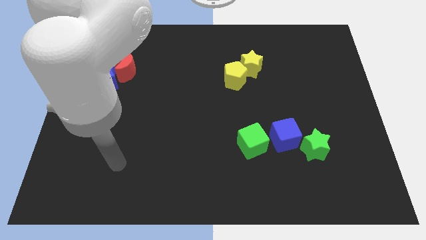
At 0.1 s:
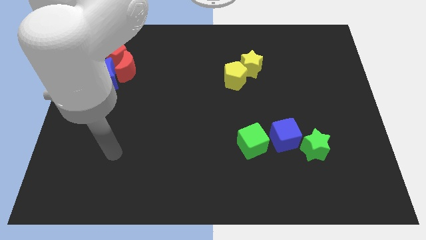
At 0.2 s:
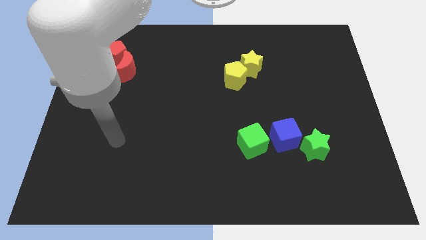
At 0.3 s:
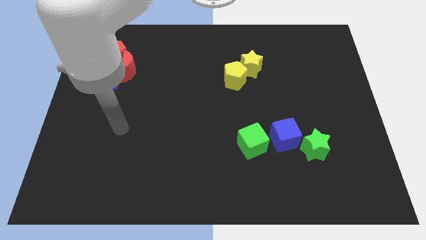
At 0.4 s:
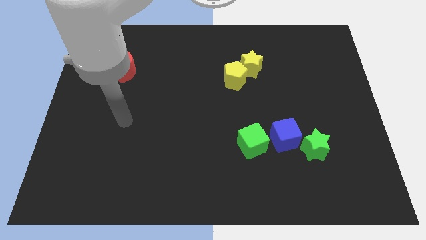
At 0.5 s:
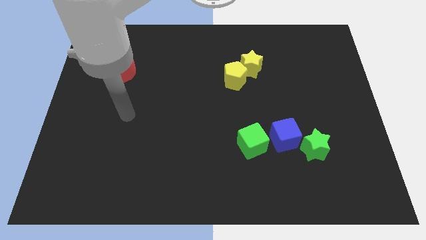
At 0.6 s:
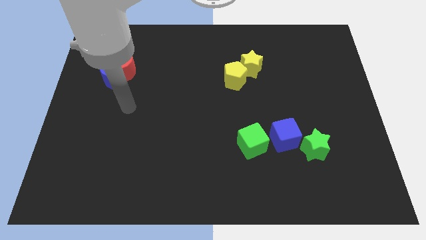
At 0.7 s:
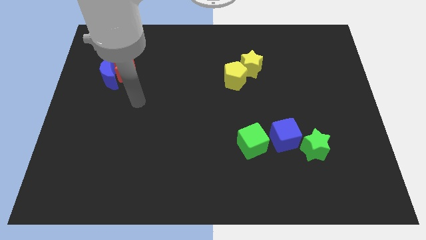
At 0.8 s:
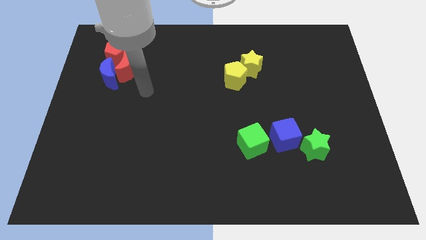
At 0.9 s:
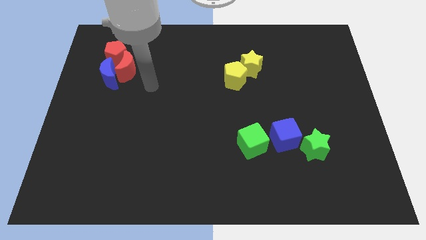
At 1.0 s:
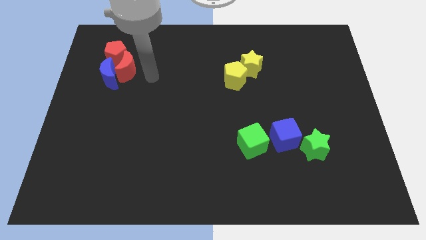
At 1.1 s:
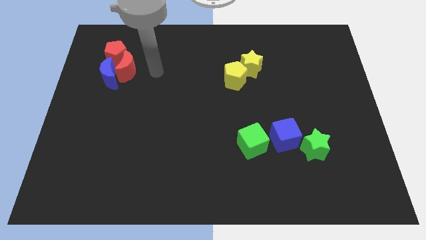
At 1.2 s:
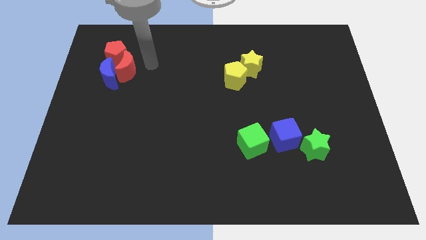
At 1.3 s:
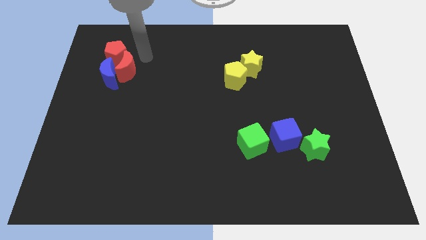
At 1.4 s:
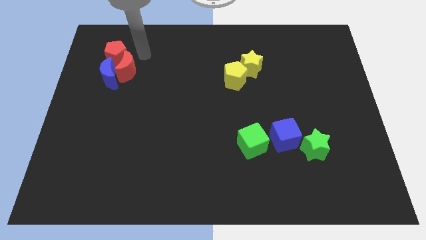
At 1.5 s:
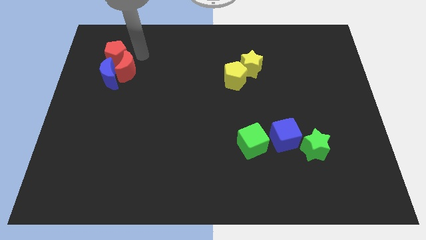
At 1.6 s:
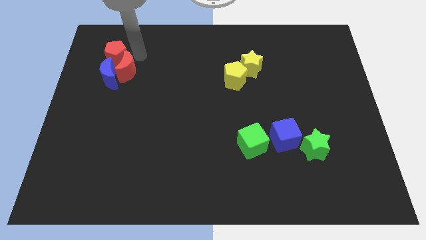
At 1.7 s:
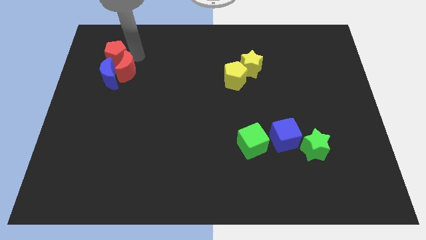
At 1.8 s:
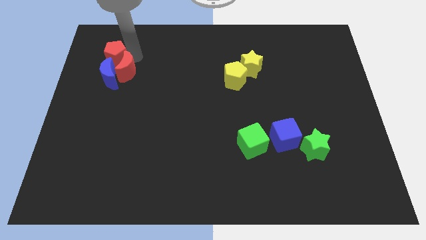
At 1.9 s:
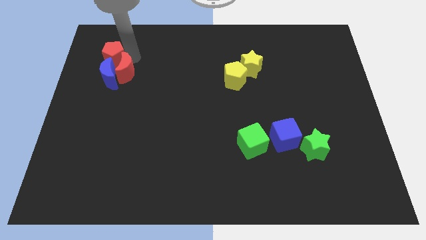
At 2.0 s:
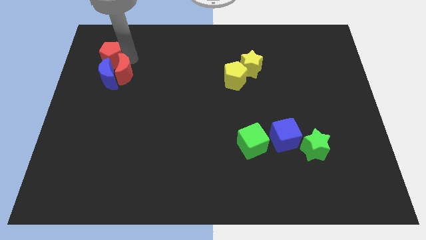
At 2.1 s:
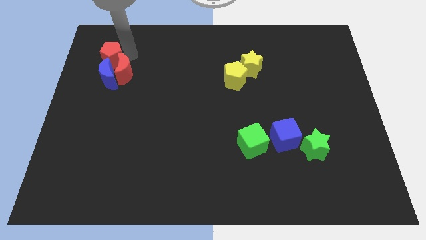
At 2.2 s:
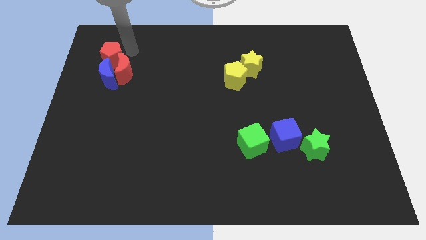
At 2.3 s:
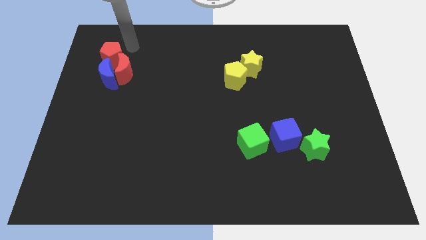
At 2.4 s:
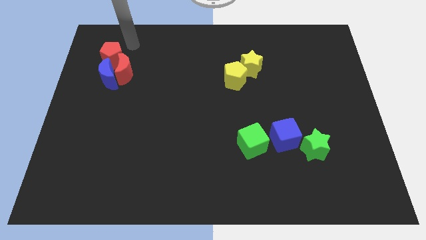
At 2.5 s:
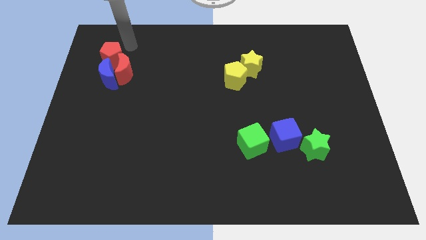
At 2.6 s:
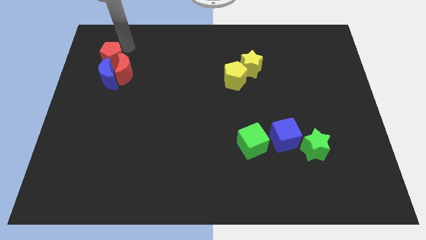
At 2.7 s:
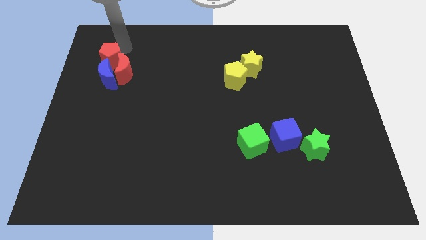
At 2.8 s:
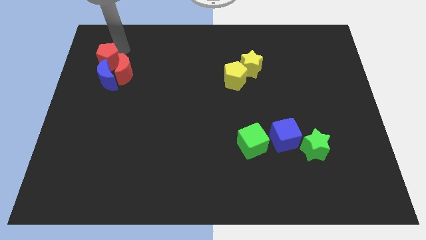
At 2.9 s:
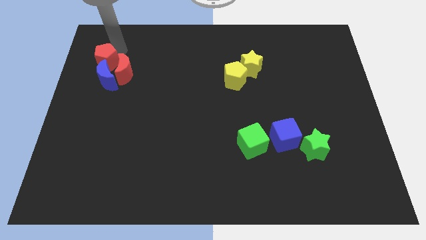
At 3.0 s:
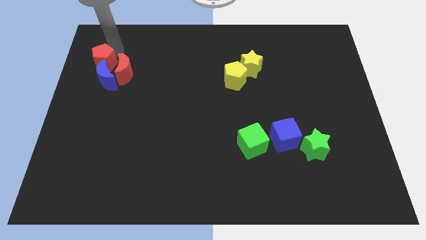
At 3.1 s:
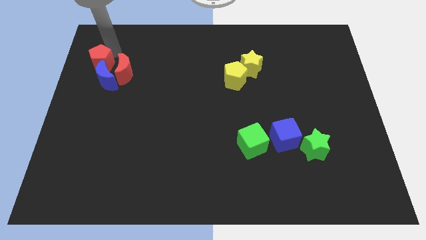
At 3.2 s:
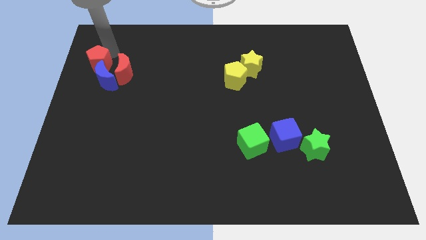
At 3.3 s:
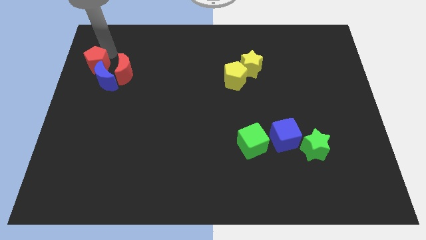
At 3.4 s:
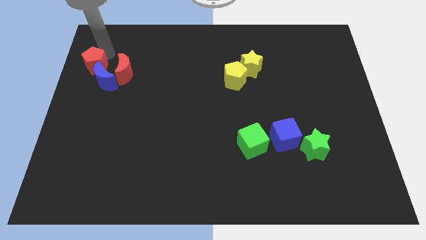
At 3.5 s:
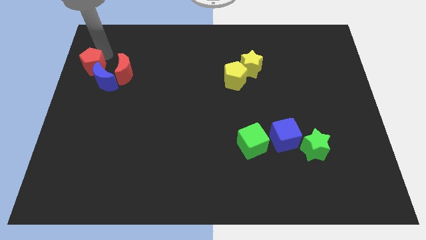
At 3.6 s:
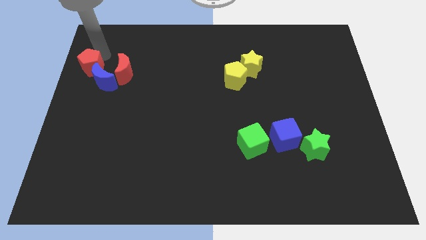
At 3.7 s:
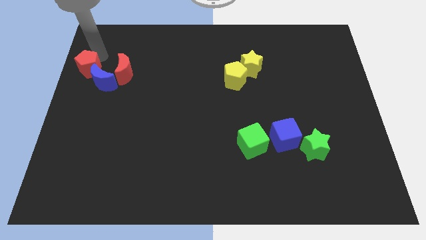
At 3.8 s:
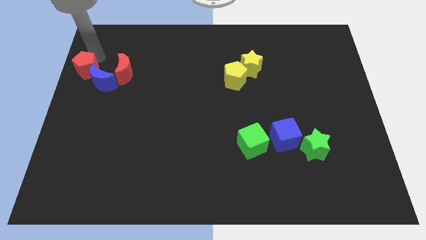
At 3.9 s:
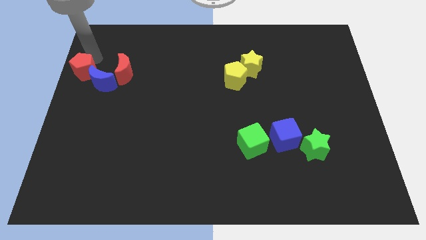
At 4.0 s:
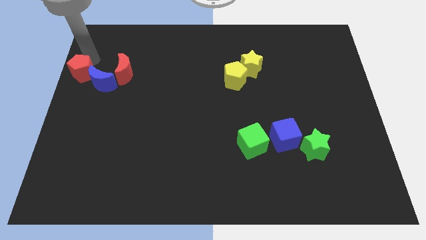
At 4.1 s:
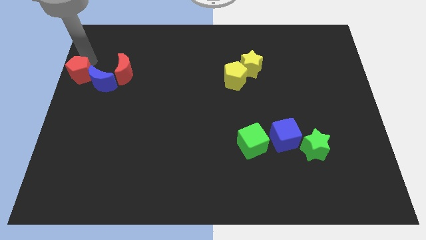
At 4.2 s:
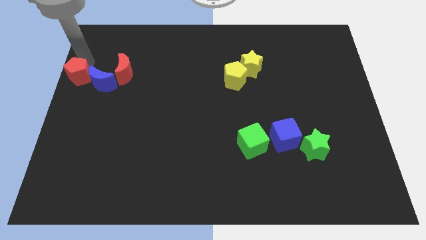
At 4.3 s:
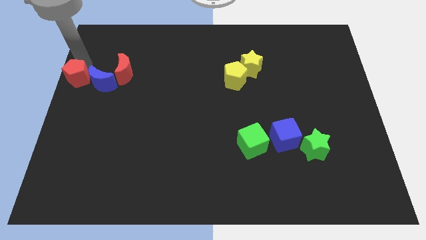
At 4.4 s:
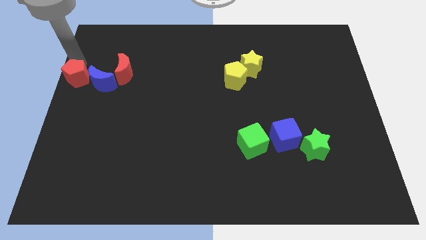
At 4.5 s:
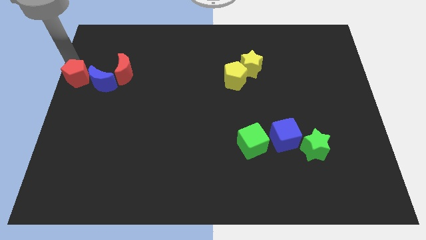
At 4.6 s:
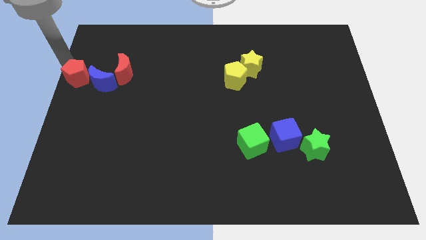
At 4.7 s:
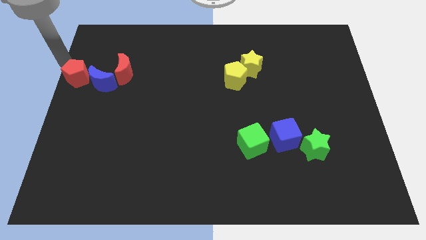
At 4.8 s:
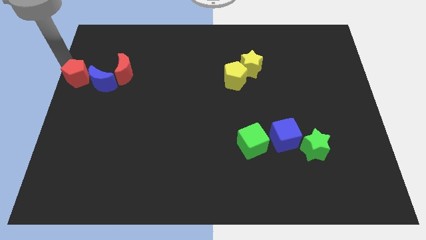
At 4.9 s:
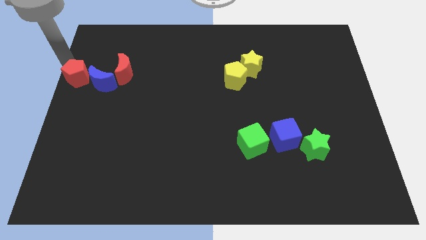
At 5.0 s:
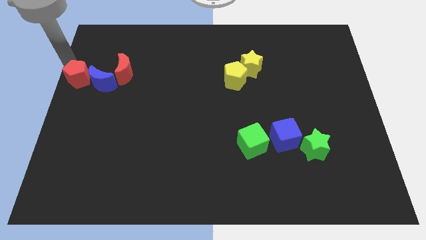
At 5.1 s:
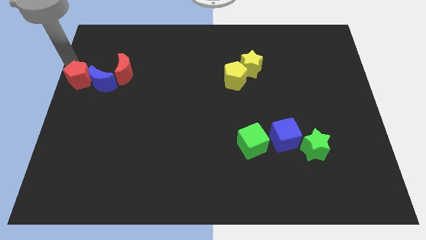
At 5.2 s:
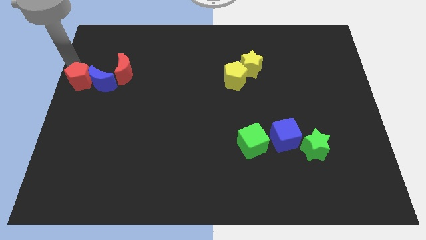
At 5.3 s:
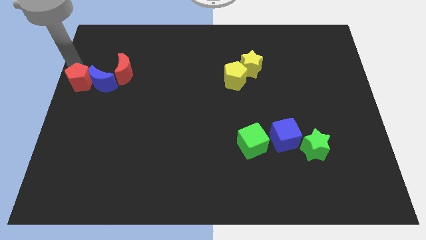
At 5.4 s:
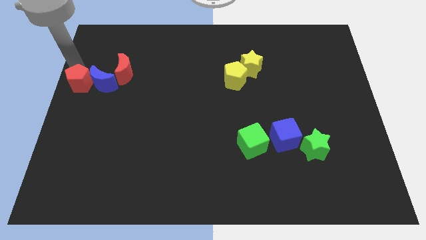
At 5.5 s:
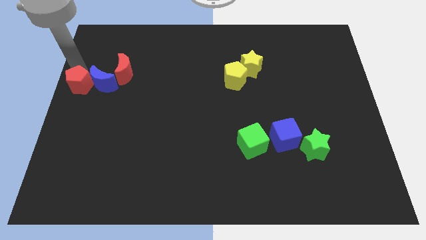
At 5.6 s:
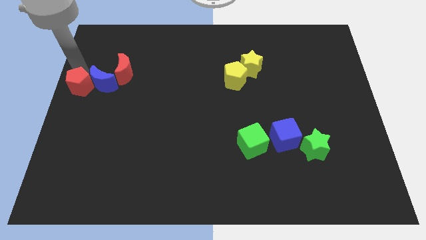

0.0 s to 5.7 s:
move the red pentagon a little down

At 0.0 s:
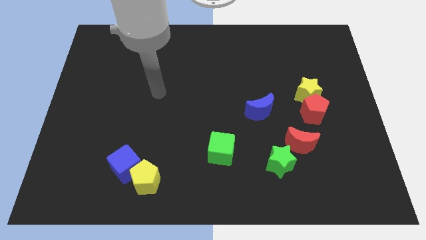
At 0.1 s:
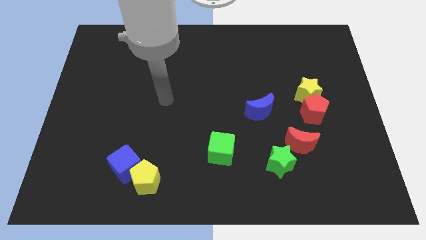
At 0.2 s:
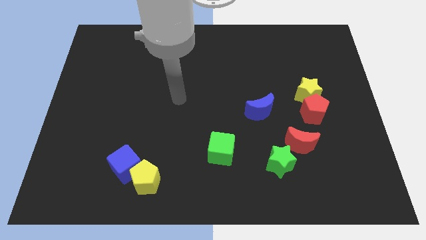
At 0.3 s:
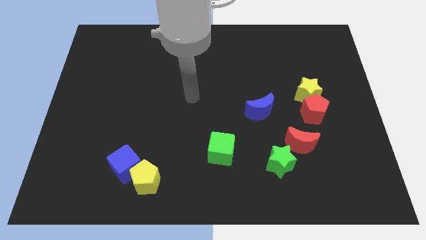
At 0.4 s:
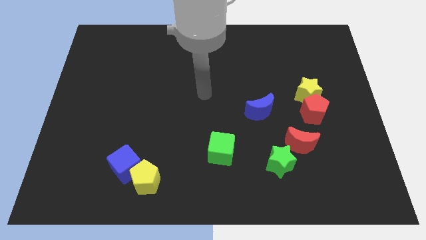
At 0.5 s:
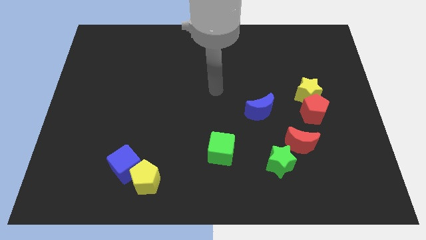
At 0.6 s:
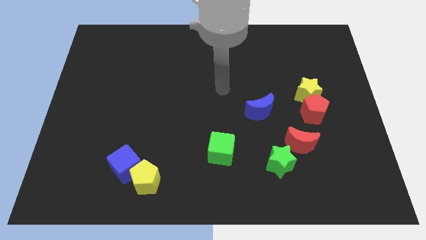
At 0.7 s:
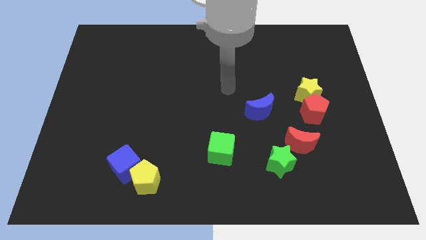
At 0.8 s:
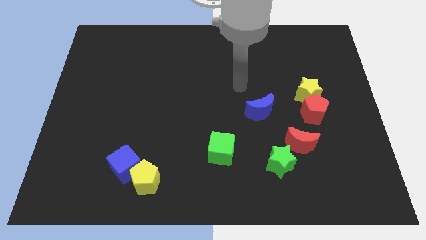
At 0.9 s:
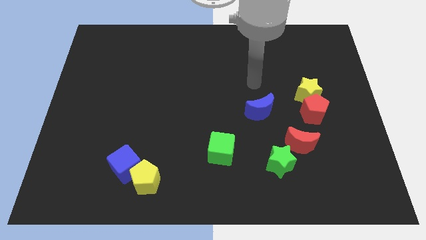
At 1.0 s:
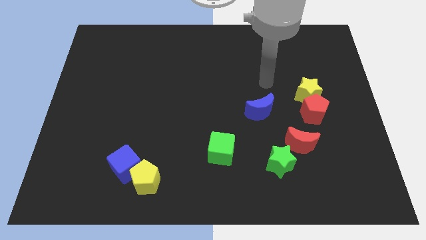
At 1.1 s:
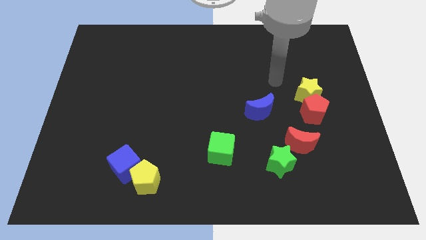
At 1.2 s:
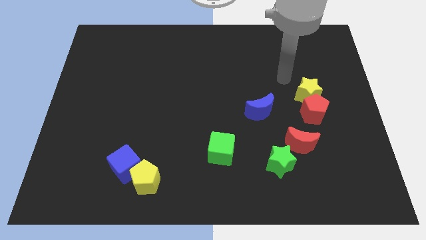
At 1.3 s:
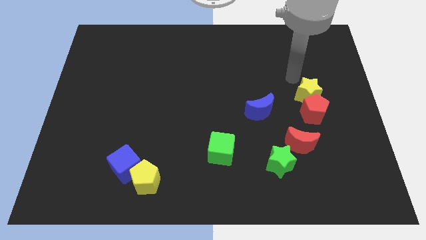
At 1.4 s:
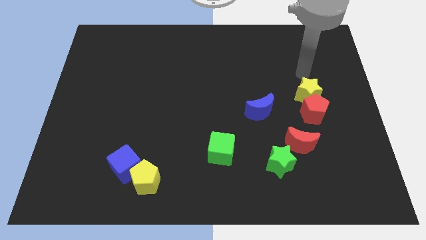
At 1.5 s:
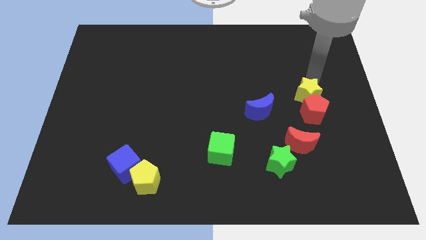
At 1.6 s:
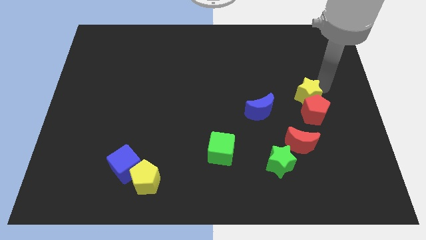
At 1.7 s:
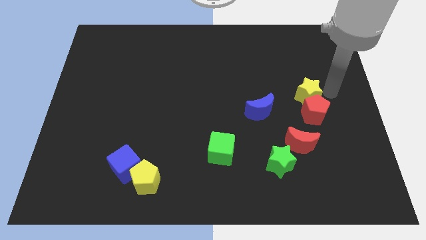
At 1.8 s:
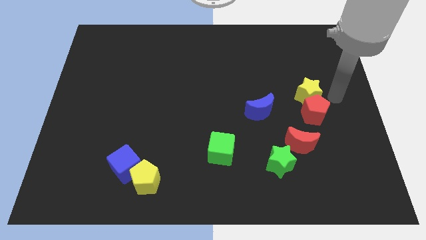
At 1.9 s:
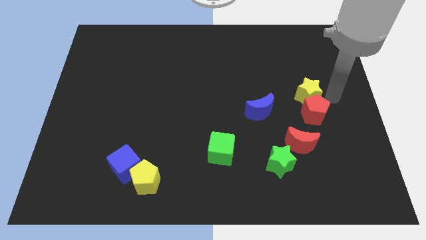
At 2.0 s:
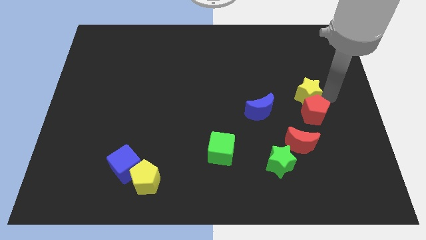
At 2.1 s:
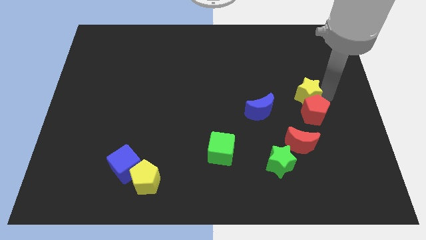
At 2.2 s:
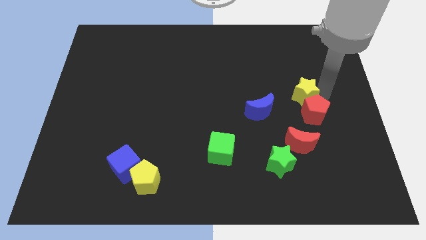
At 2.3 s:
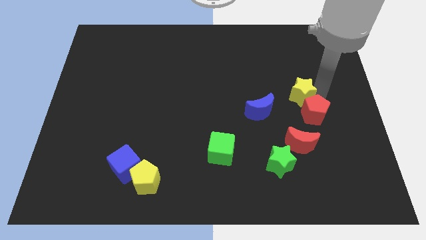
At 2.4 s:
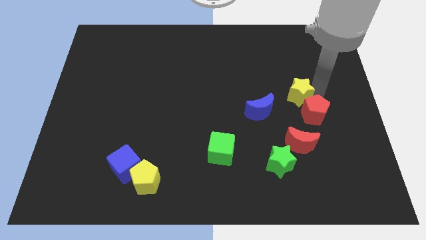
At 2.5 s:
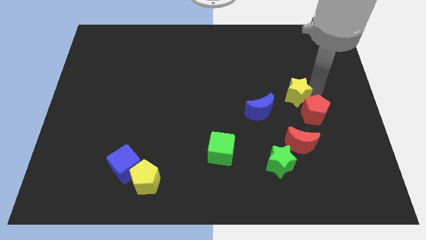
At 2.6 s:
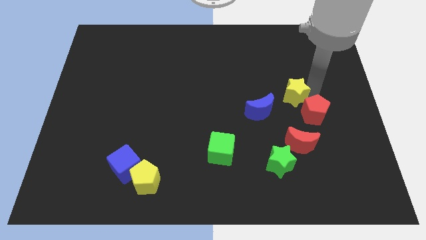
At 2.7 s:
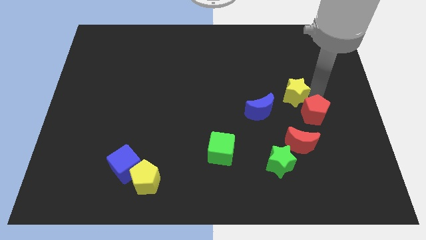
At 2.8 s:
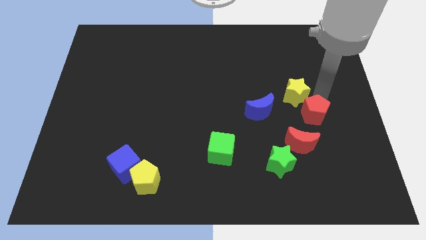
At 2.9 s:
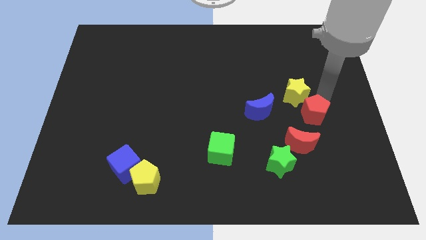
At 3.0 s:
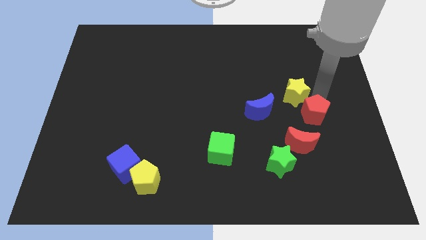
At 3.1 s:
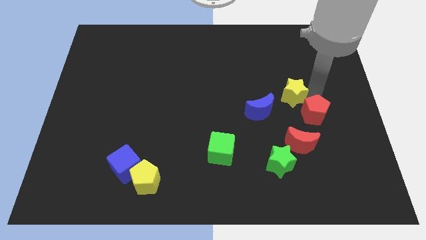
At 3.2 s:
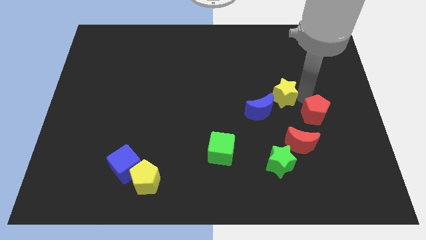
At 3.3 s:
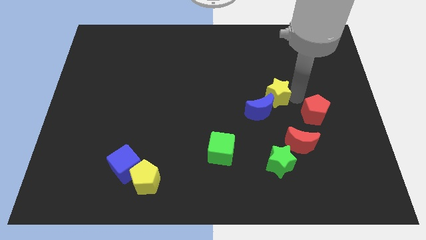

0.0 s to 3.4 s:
slightly push the yellow star to the left
